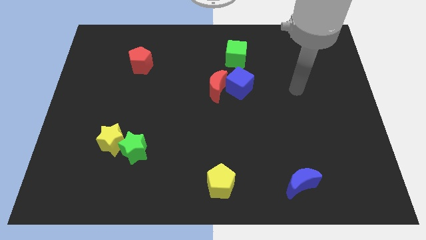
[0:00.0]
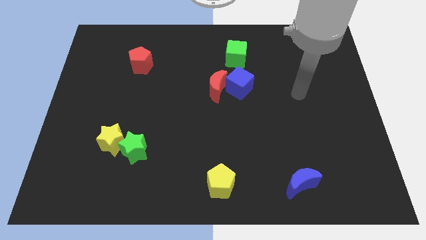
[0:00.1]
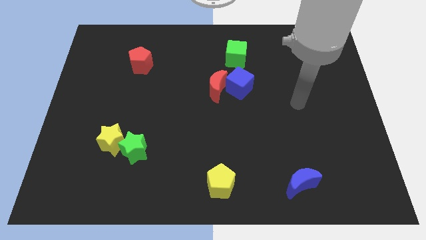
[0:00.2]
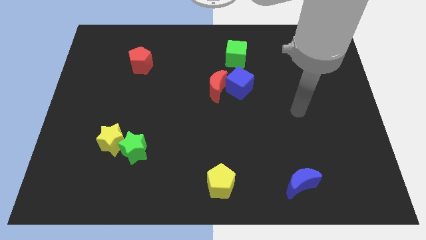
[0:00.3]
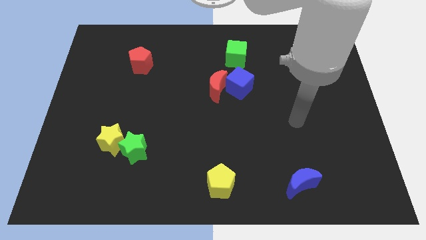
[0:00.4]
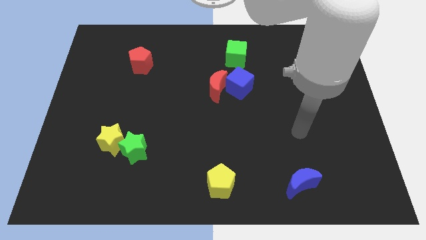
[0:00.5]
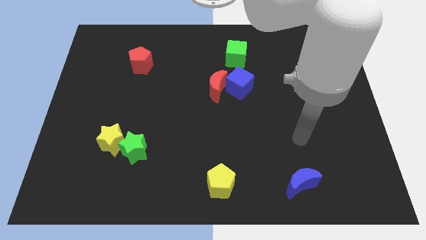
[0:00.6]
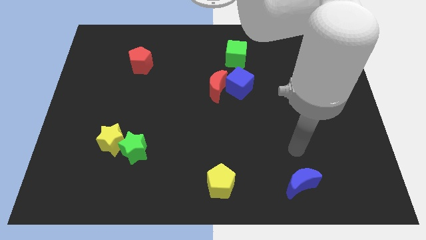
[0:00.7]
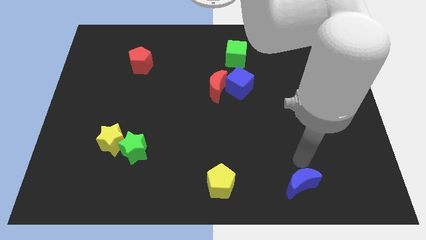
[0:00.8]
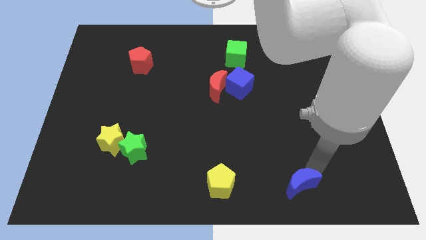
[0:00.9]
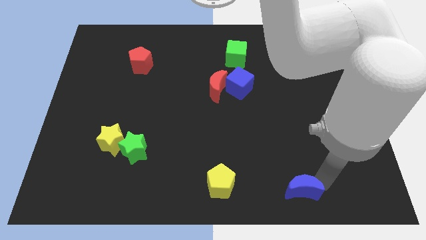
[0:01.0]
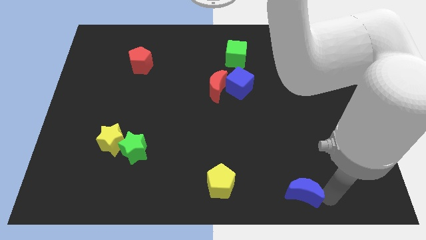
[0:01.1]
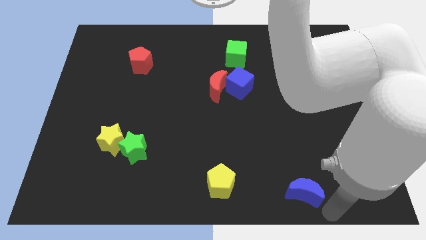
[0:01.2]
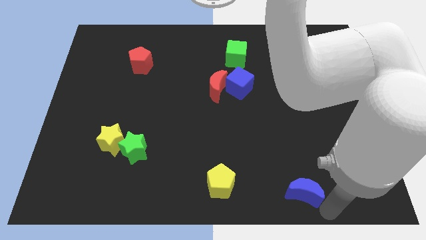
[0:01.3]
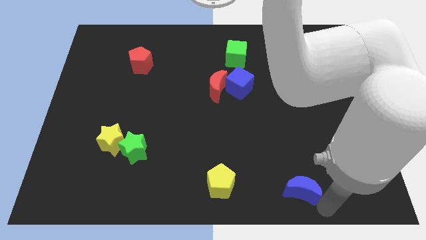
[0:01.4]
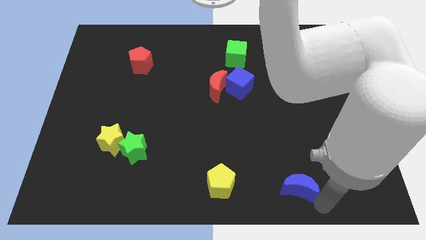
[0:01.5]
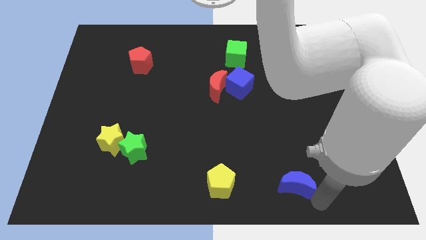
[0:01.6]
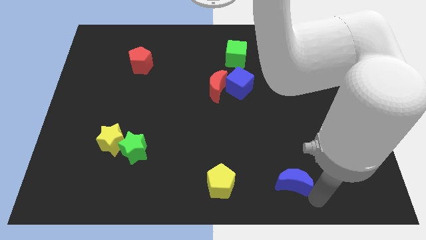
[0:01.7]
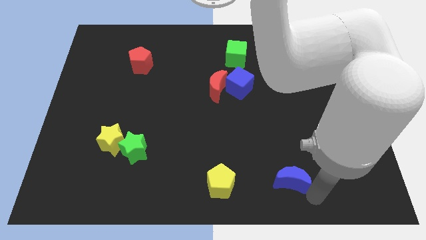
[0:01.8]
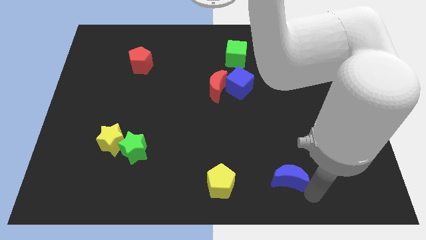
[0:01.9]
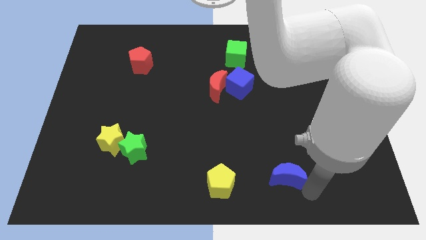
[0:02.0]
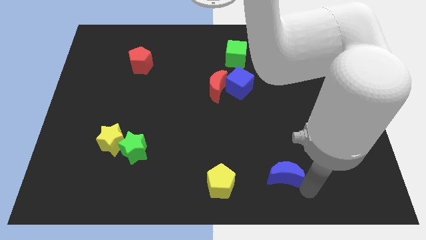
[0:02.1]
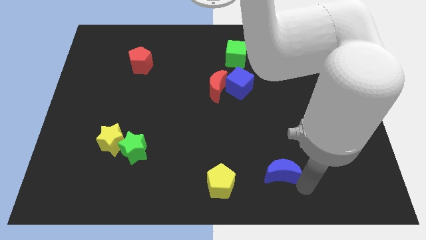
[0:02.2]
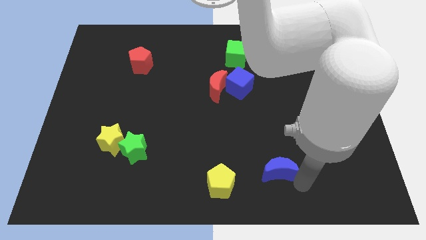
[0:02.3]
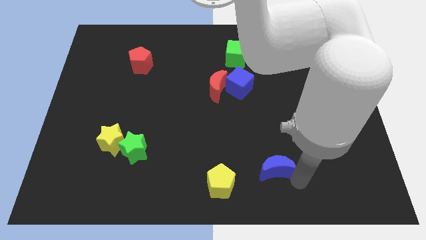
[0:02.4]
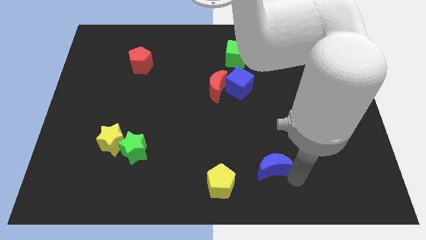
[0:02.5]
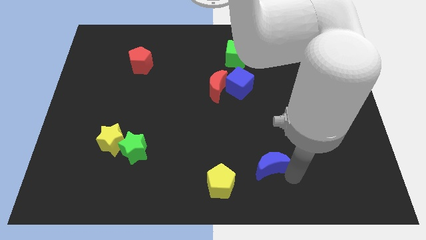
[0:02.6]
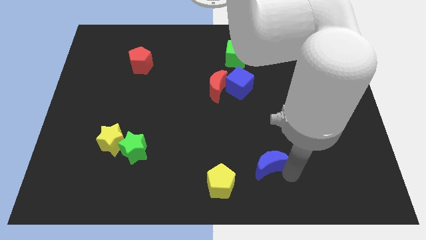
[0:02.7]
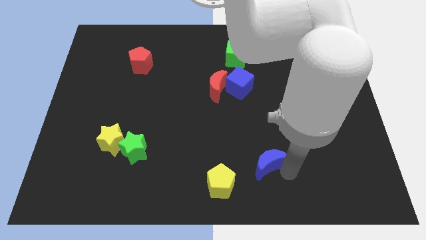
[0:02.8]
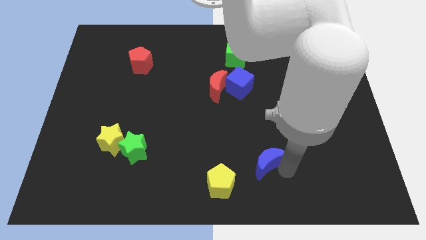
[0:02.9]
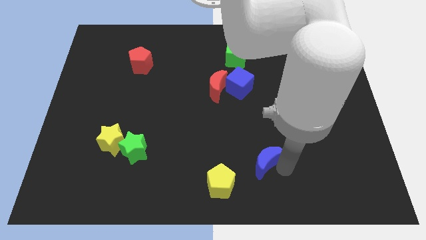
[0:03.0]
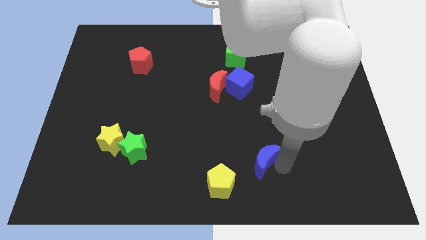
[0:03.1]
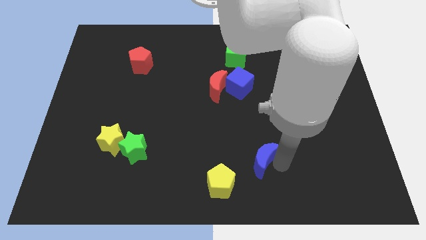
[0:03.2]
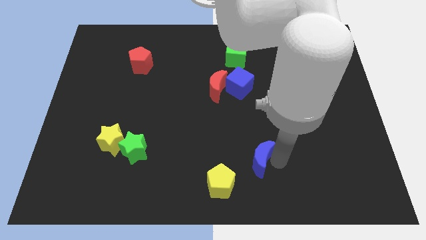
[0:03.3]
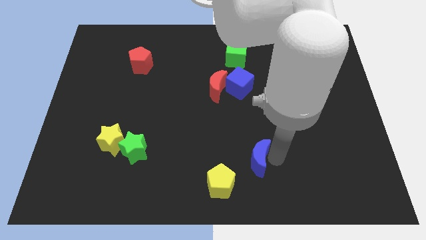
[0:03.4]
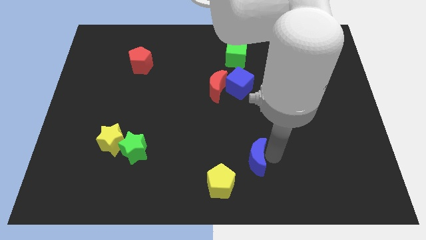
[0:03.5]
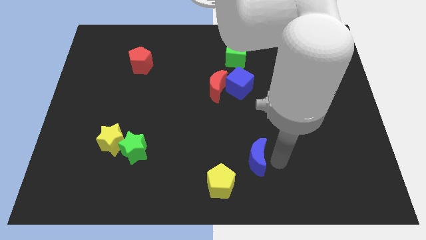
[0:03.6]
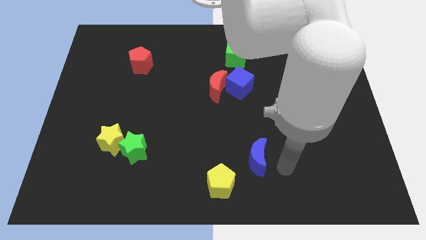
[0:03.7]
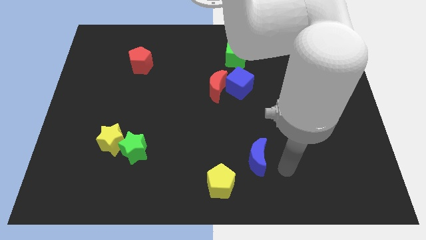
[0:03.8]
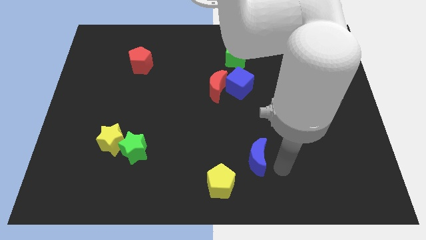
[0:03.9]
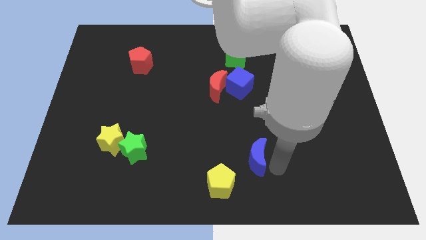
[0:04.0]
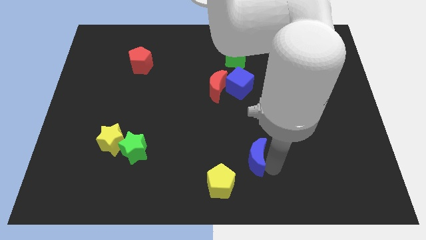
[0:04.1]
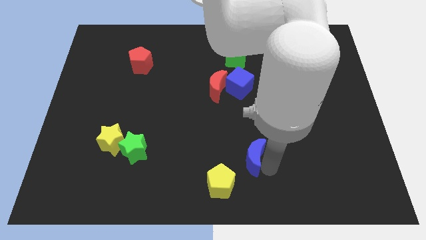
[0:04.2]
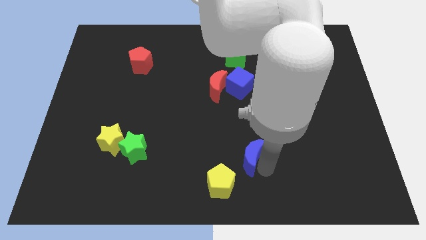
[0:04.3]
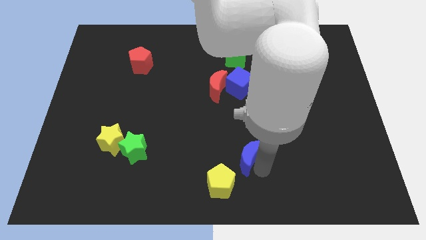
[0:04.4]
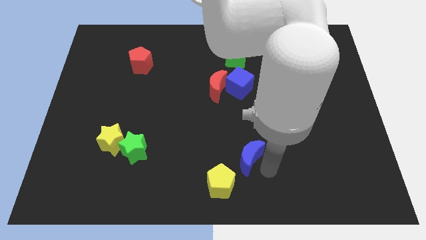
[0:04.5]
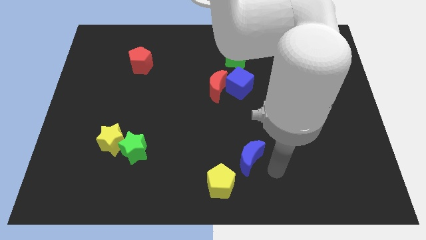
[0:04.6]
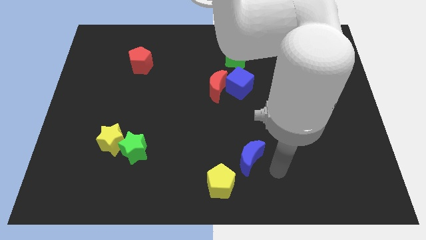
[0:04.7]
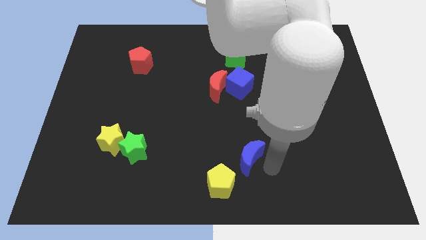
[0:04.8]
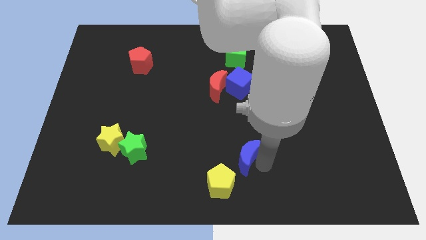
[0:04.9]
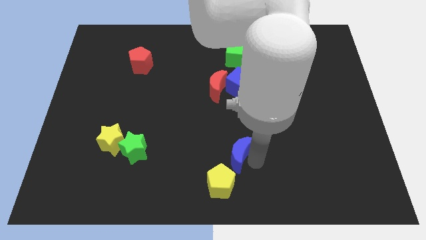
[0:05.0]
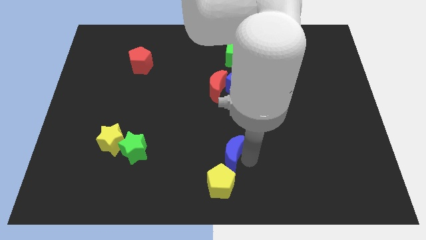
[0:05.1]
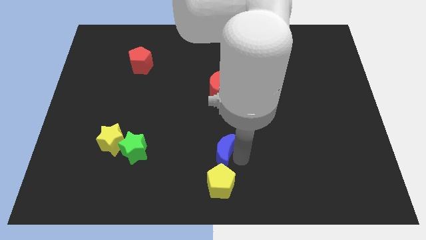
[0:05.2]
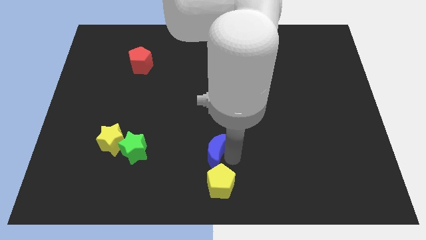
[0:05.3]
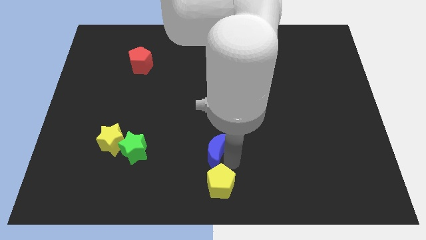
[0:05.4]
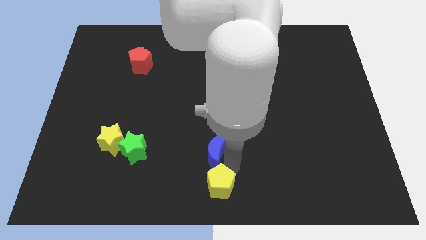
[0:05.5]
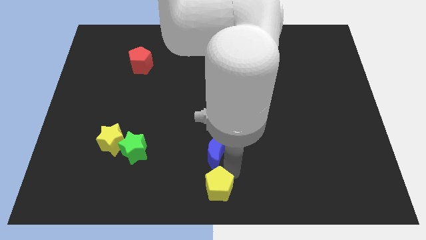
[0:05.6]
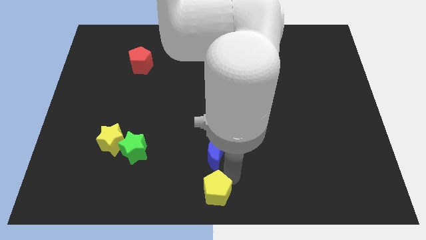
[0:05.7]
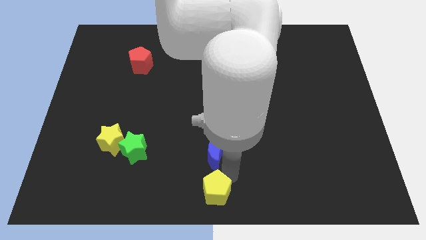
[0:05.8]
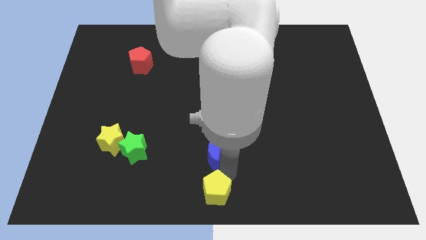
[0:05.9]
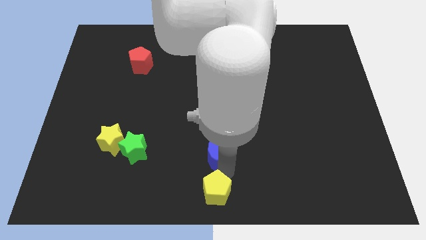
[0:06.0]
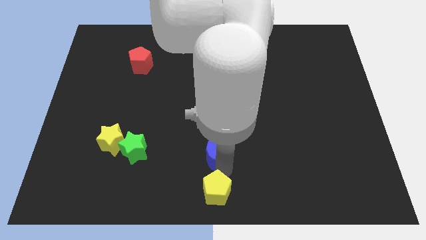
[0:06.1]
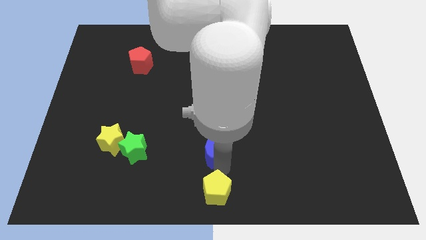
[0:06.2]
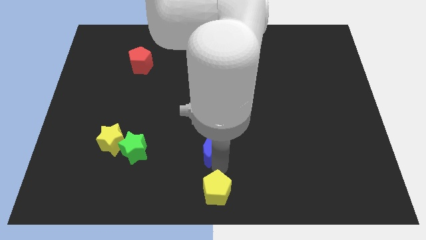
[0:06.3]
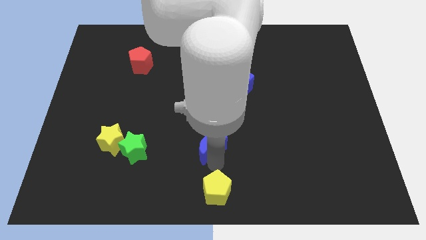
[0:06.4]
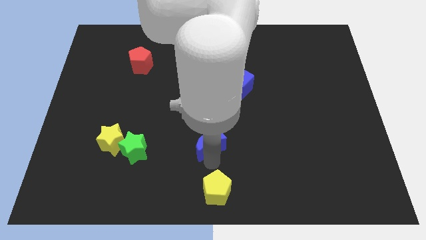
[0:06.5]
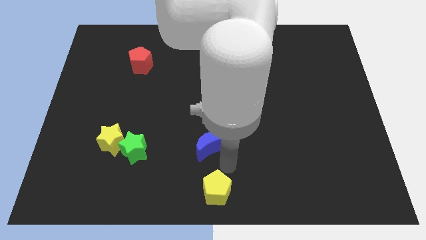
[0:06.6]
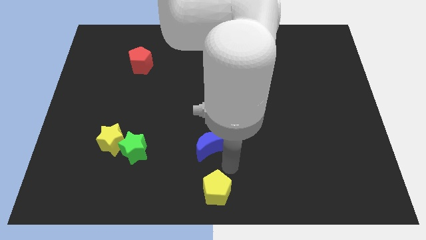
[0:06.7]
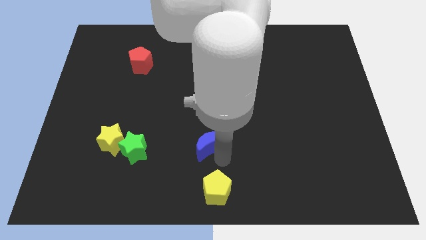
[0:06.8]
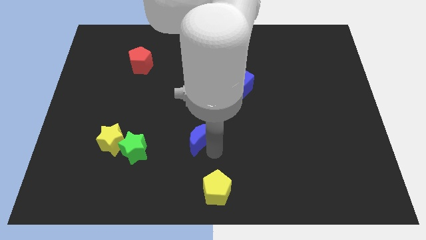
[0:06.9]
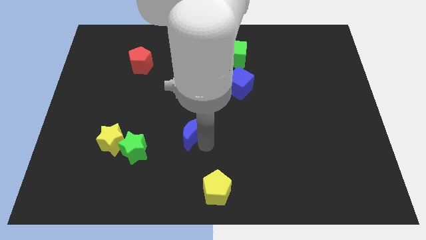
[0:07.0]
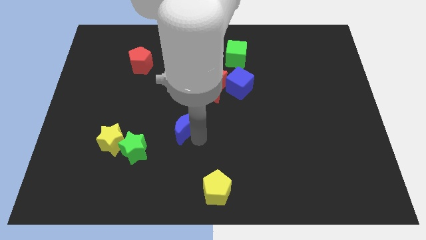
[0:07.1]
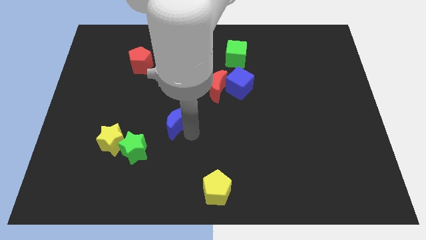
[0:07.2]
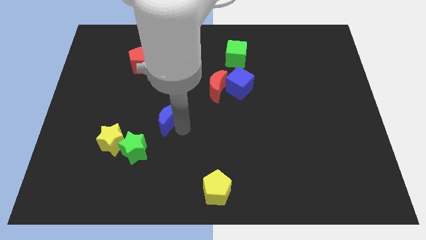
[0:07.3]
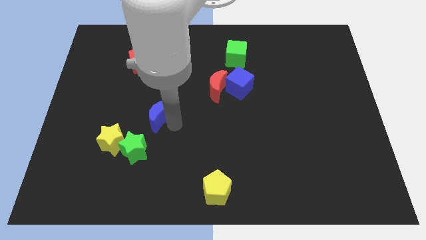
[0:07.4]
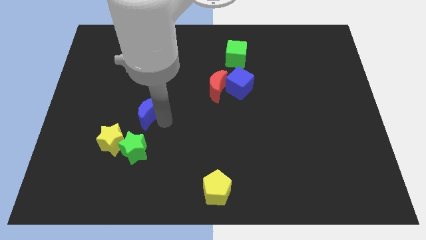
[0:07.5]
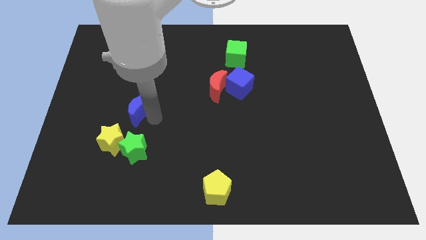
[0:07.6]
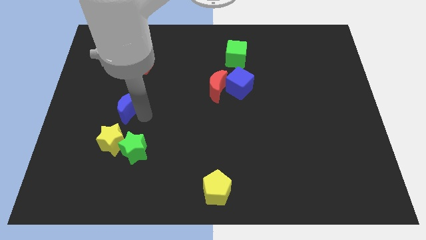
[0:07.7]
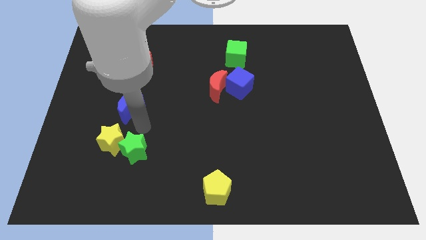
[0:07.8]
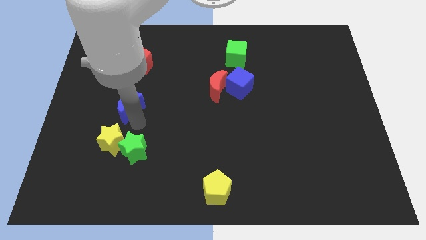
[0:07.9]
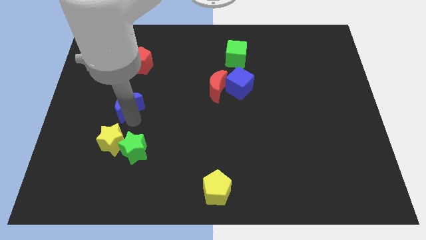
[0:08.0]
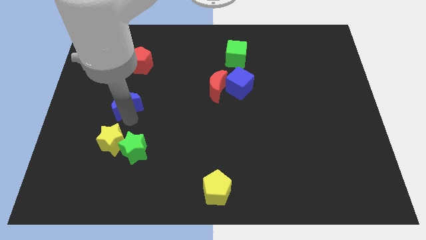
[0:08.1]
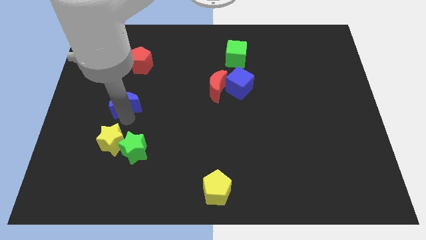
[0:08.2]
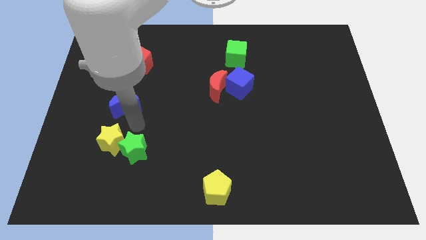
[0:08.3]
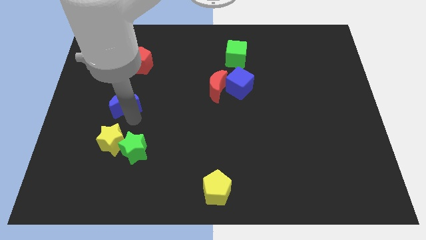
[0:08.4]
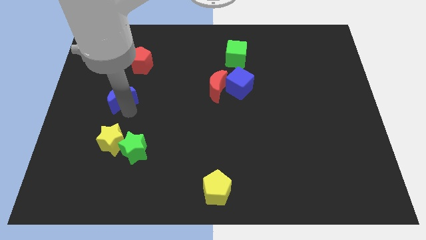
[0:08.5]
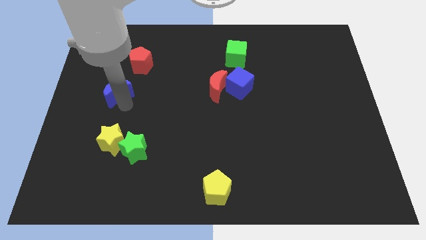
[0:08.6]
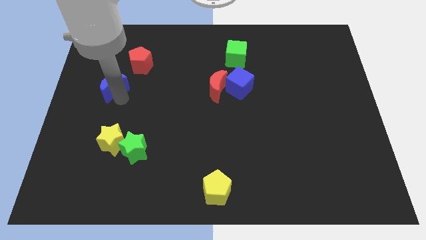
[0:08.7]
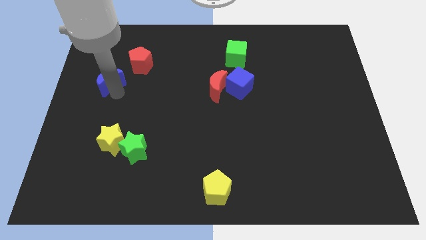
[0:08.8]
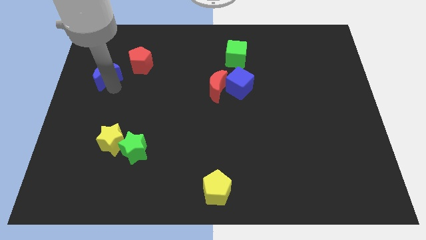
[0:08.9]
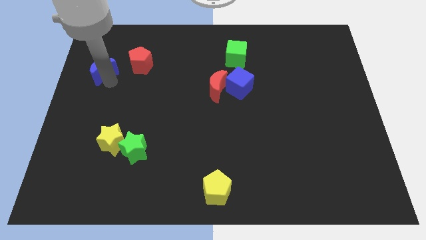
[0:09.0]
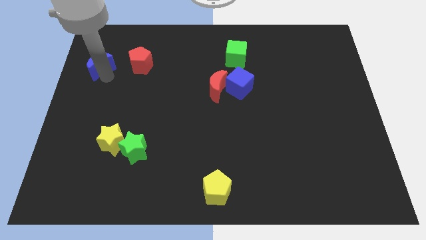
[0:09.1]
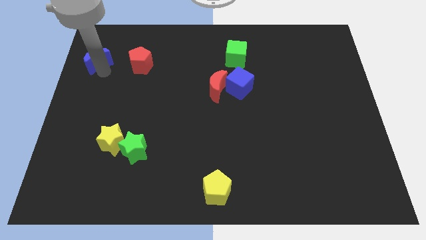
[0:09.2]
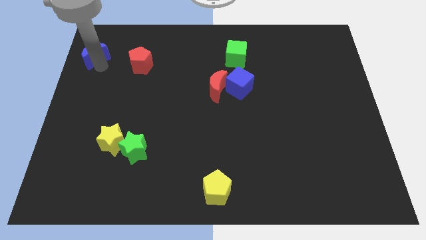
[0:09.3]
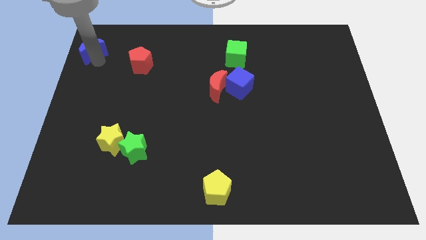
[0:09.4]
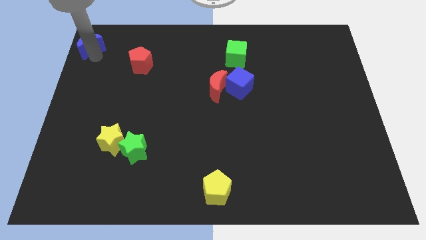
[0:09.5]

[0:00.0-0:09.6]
slide the blue moon to the top left
